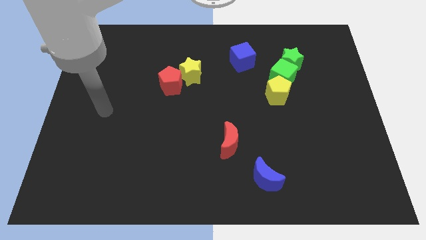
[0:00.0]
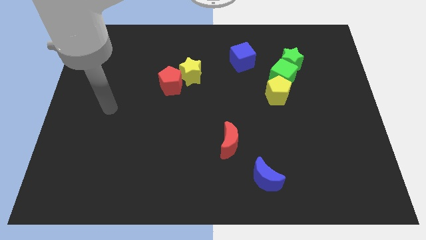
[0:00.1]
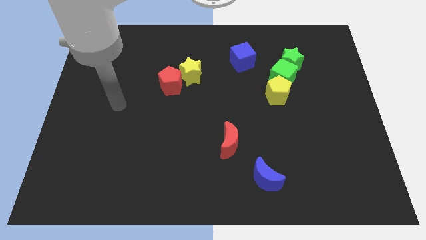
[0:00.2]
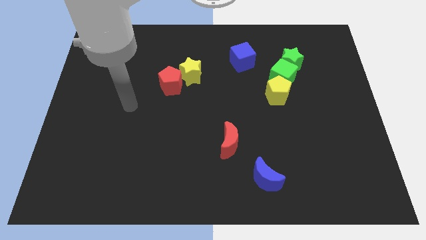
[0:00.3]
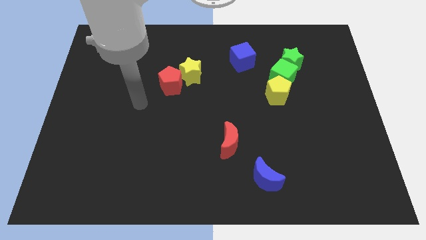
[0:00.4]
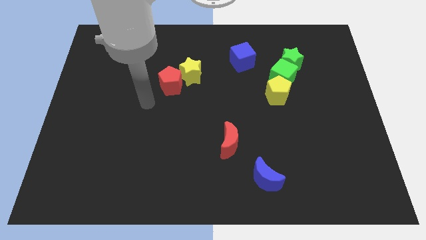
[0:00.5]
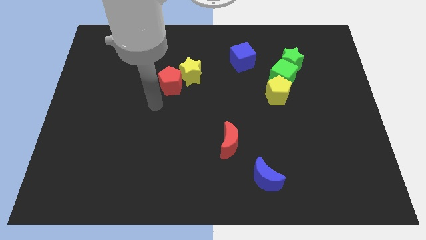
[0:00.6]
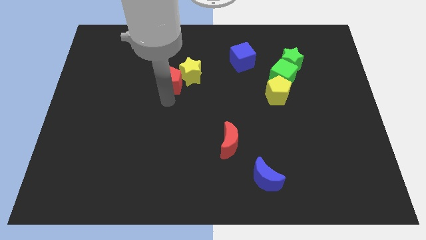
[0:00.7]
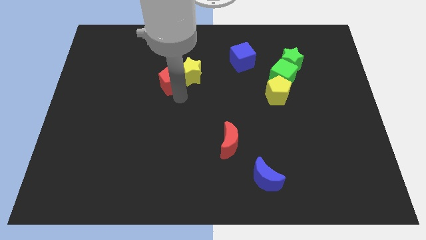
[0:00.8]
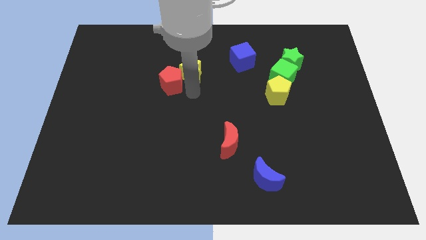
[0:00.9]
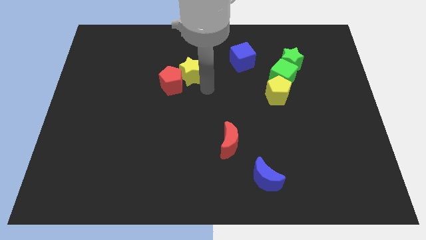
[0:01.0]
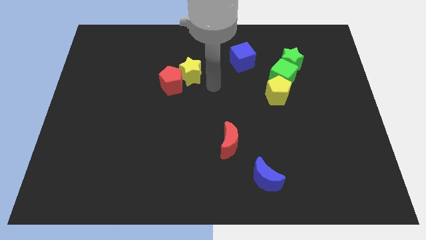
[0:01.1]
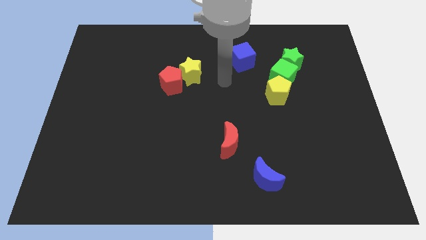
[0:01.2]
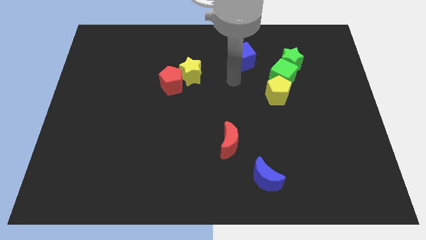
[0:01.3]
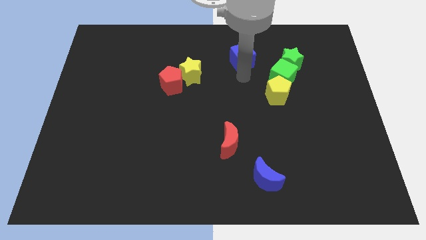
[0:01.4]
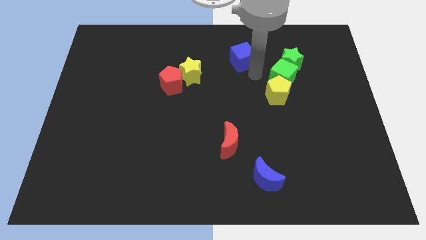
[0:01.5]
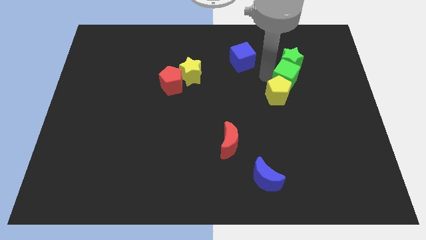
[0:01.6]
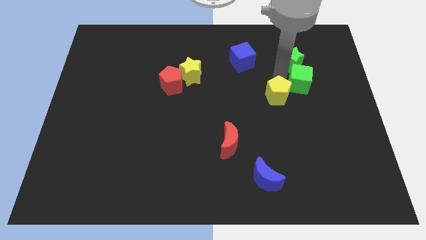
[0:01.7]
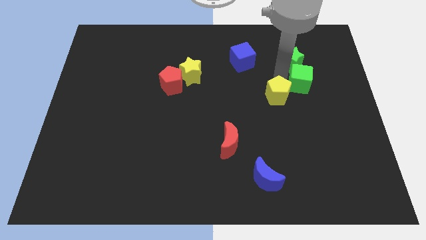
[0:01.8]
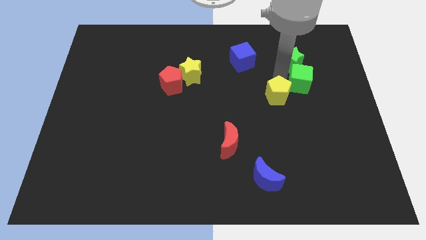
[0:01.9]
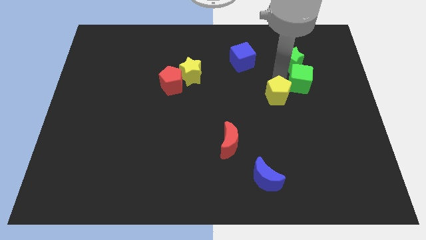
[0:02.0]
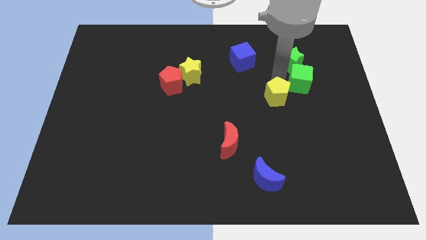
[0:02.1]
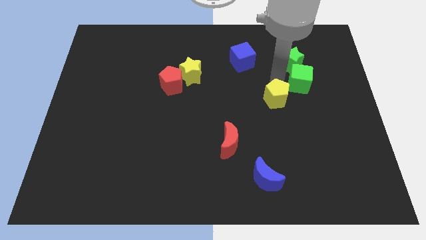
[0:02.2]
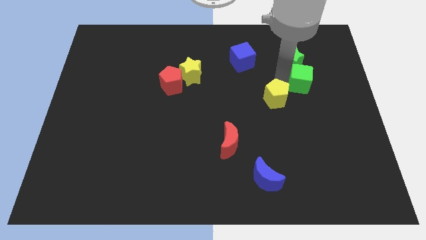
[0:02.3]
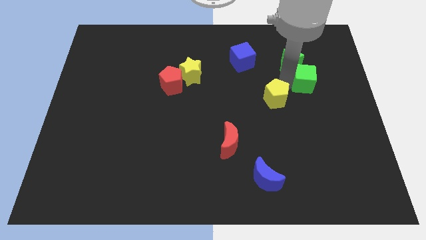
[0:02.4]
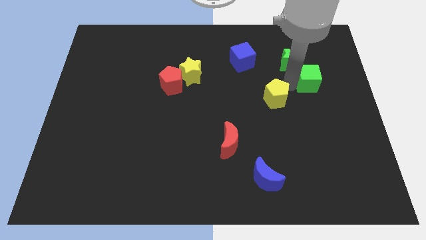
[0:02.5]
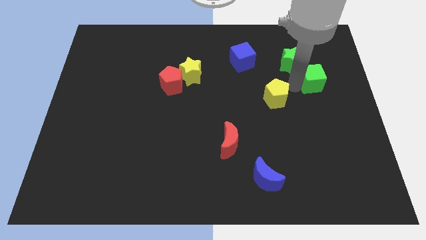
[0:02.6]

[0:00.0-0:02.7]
separate the yellow pentagon from the green cube

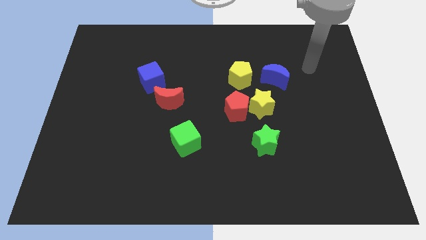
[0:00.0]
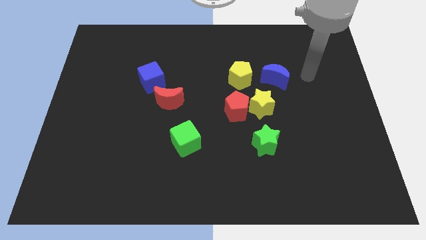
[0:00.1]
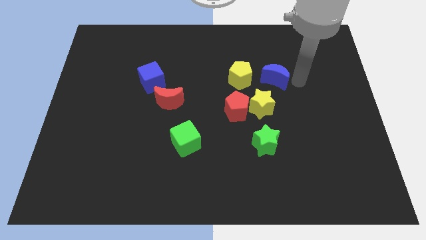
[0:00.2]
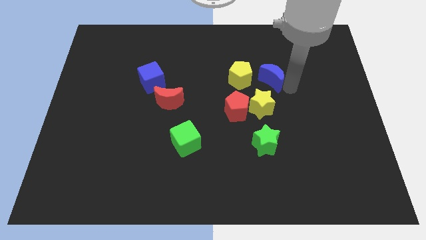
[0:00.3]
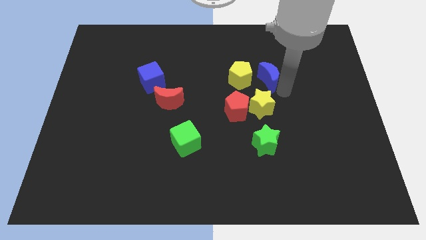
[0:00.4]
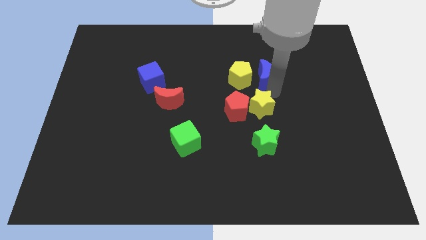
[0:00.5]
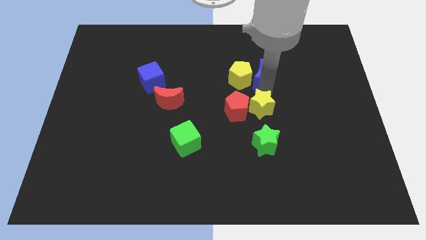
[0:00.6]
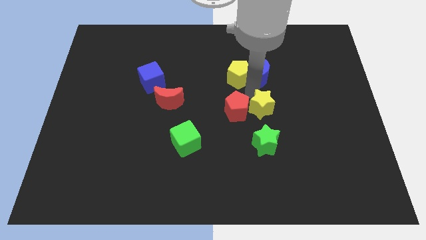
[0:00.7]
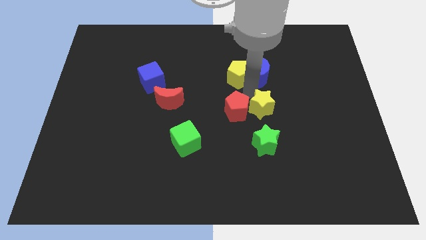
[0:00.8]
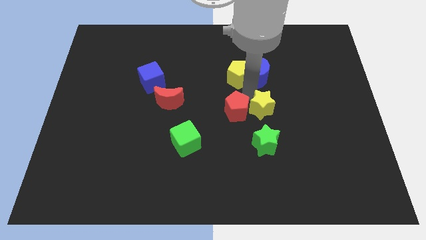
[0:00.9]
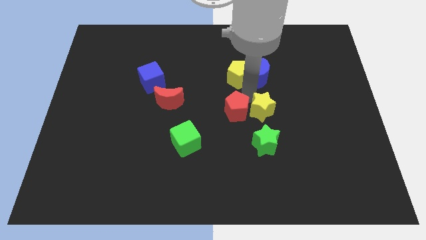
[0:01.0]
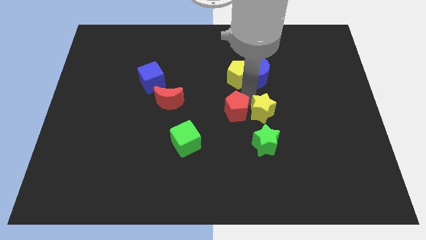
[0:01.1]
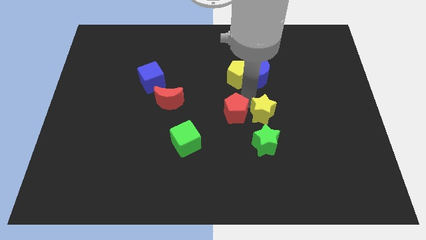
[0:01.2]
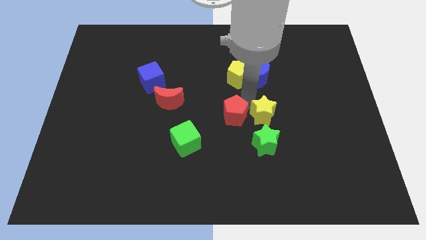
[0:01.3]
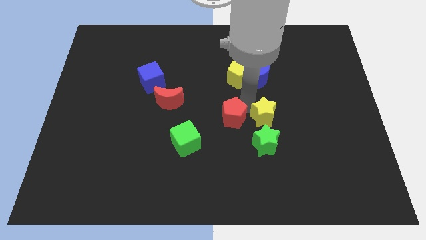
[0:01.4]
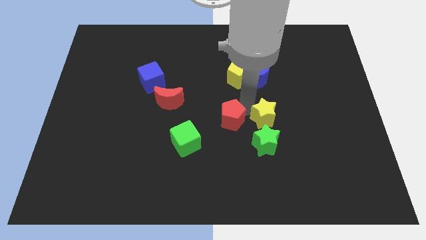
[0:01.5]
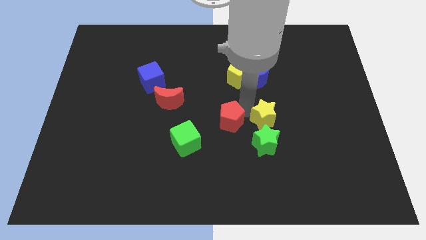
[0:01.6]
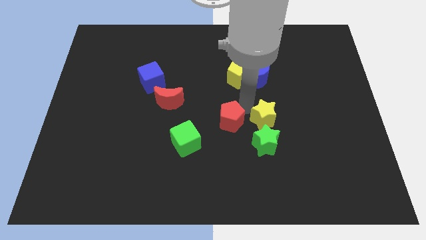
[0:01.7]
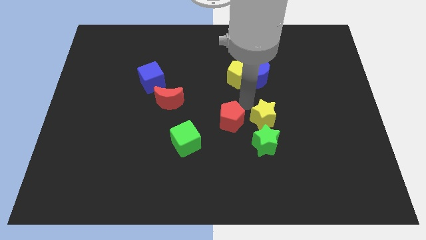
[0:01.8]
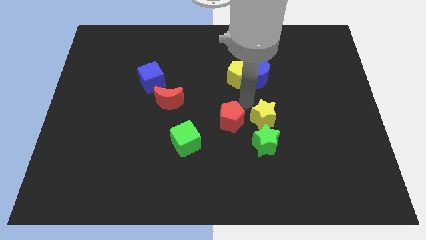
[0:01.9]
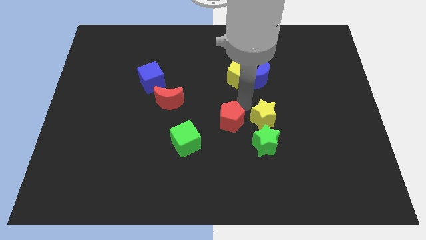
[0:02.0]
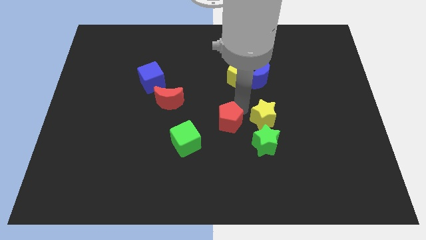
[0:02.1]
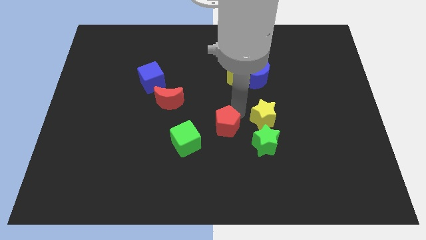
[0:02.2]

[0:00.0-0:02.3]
pull the red pentagon apart from the yellow star and yellow pentagon

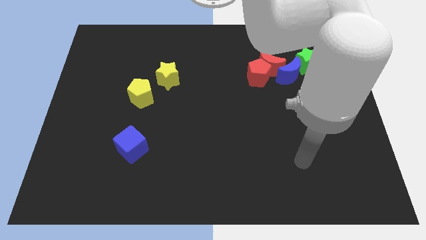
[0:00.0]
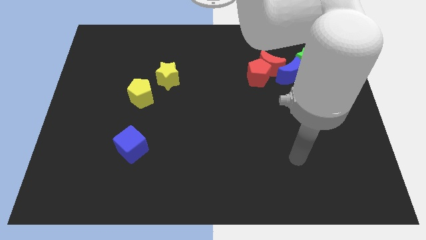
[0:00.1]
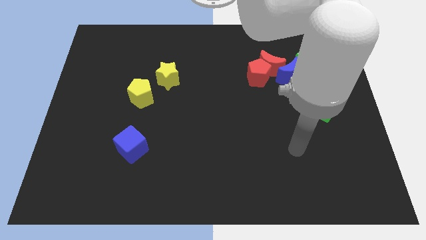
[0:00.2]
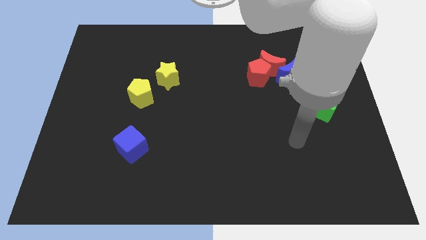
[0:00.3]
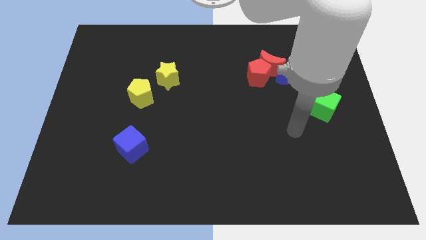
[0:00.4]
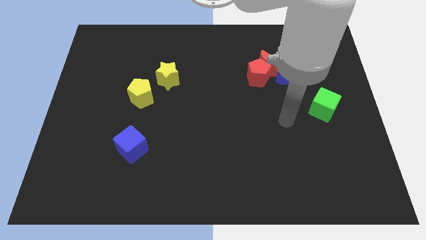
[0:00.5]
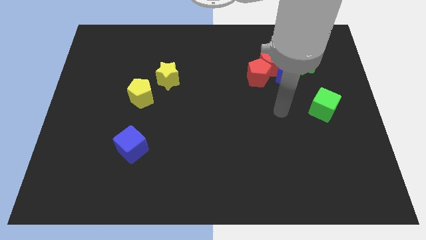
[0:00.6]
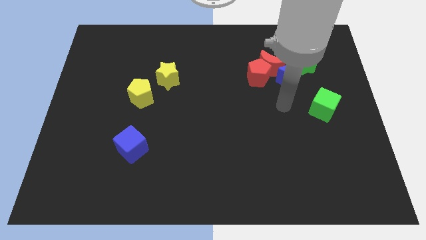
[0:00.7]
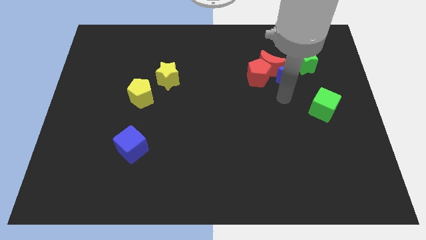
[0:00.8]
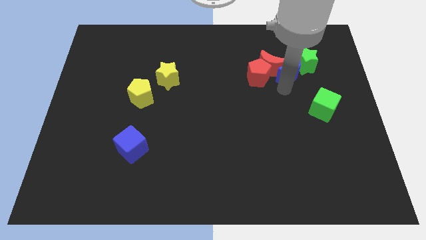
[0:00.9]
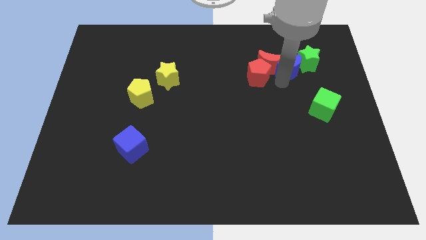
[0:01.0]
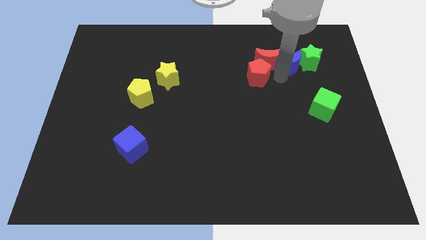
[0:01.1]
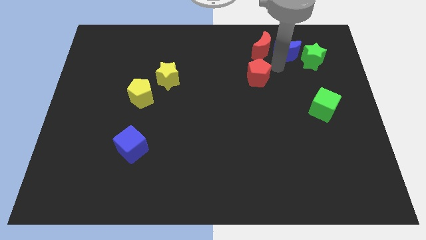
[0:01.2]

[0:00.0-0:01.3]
pull the red pentagon apart from the red moon and blue moon

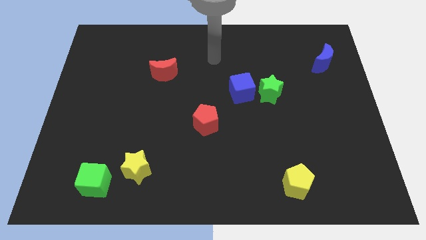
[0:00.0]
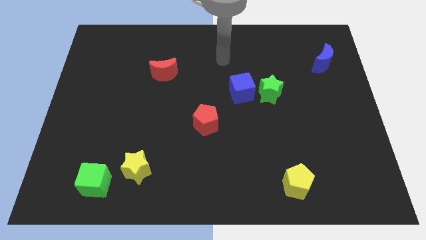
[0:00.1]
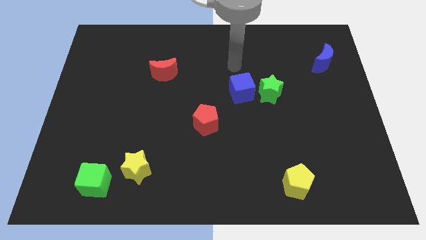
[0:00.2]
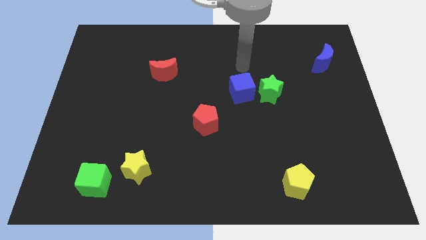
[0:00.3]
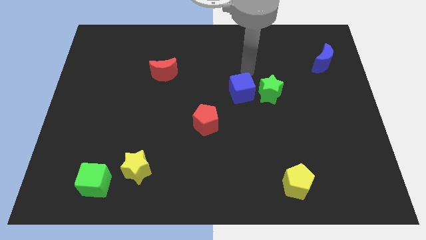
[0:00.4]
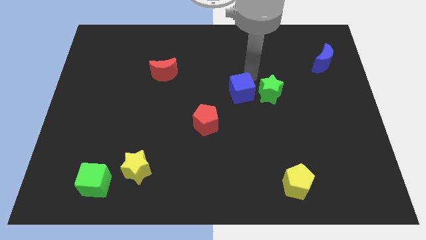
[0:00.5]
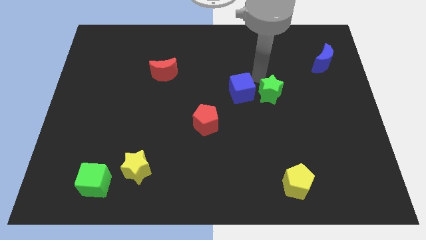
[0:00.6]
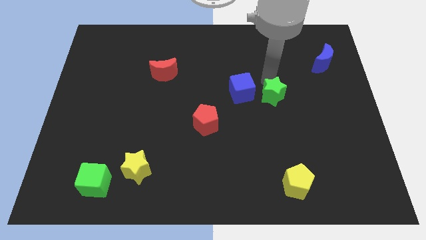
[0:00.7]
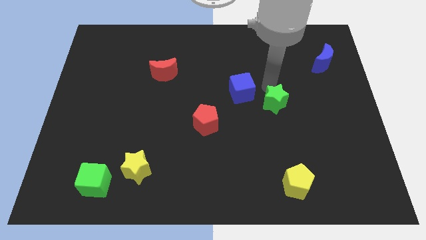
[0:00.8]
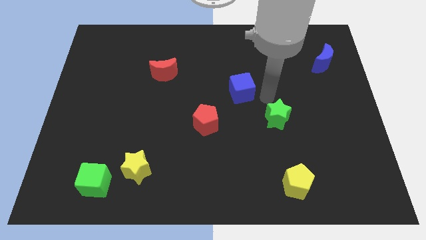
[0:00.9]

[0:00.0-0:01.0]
pull the blue cube apart from the green star

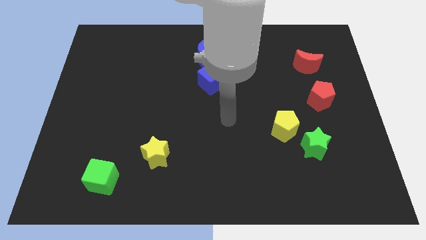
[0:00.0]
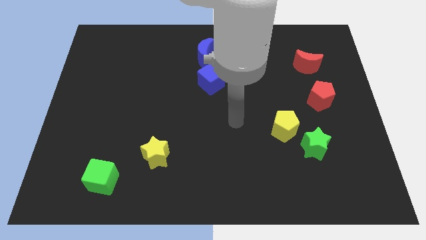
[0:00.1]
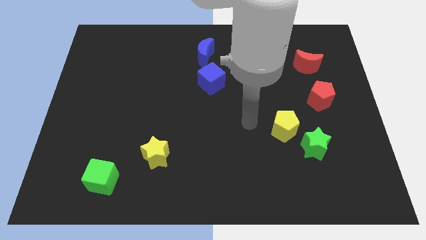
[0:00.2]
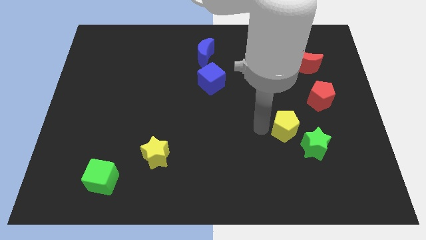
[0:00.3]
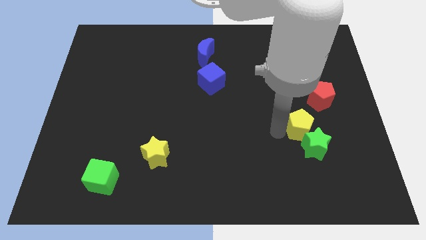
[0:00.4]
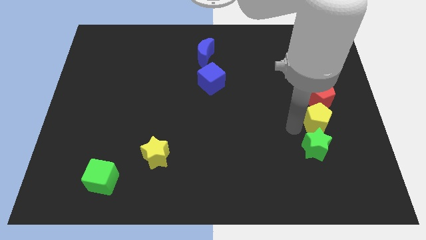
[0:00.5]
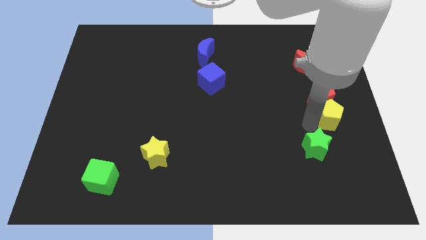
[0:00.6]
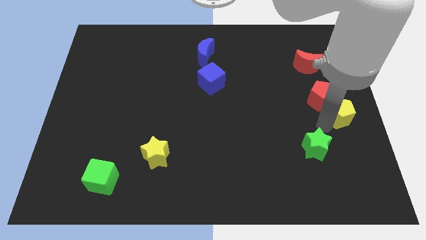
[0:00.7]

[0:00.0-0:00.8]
move the green star away from the yellow pentagon

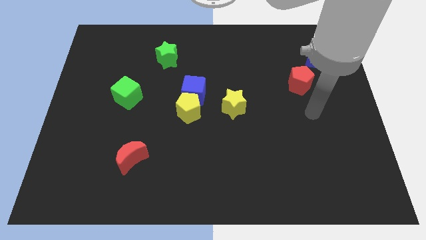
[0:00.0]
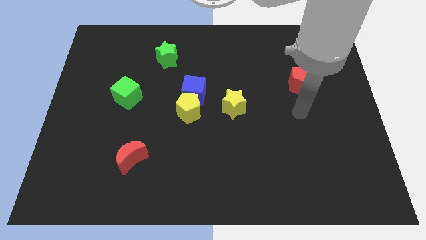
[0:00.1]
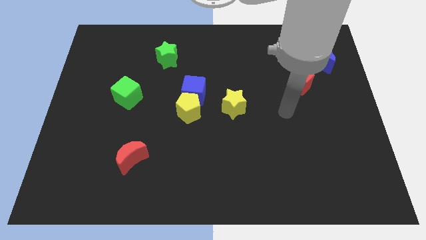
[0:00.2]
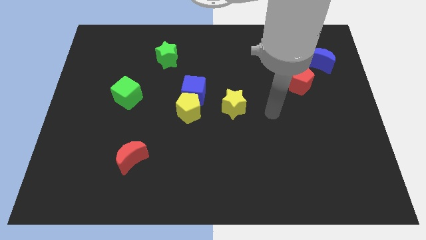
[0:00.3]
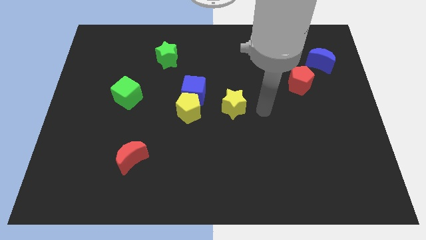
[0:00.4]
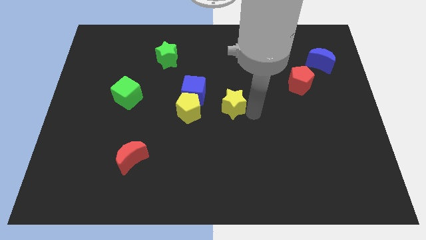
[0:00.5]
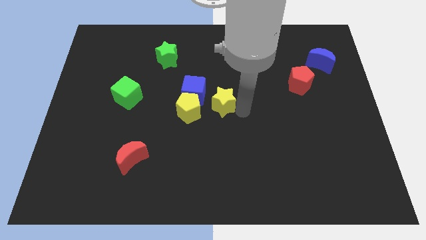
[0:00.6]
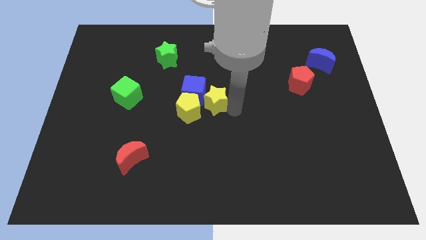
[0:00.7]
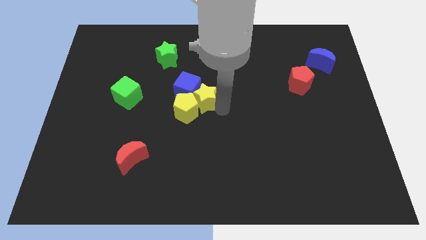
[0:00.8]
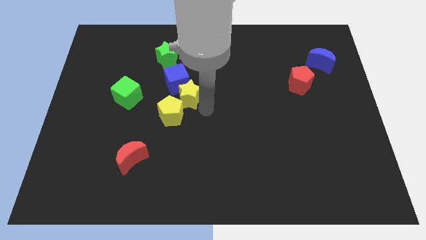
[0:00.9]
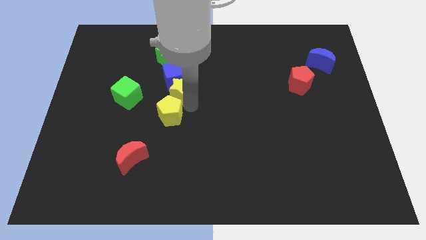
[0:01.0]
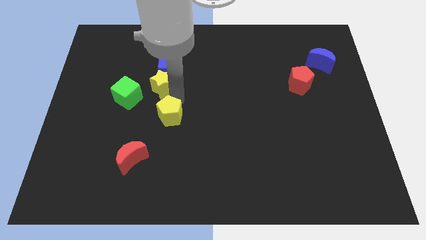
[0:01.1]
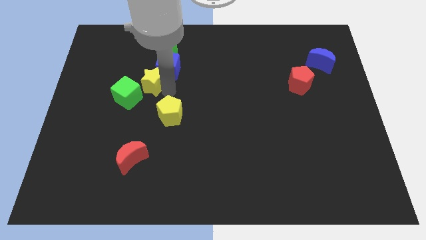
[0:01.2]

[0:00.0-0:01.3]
separate the blue cube from the yellow pentagon and yellow star
